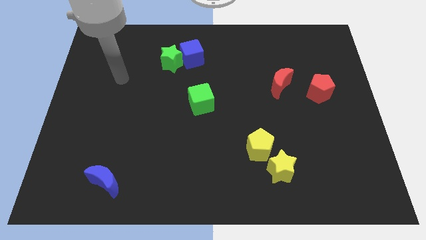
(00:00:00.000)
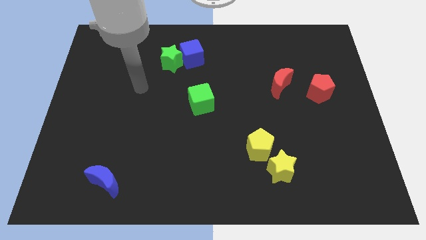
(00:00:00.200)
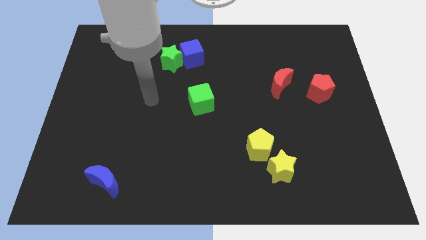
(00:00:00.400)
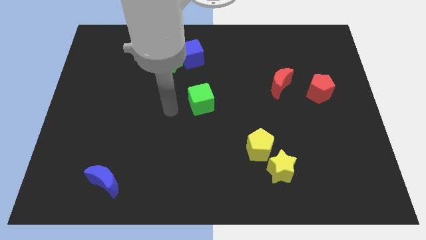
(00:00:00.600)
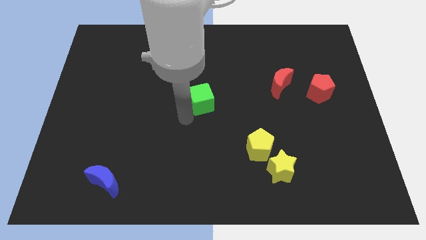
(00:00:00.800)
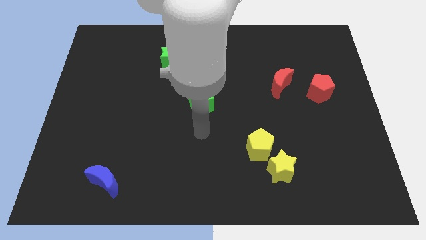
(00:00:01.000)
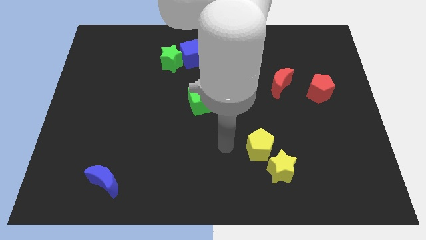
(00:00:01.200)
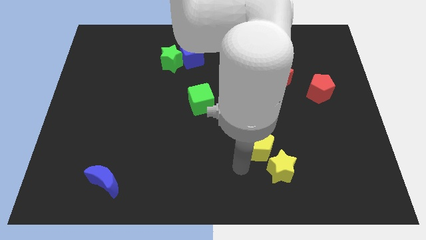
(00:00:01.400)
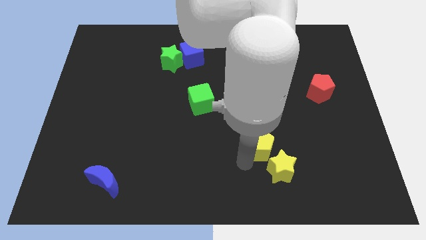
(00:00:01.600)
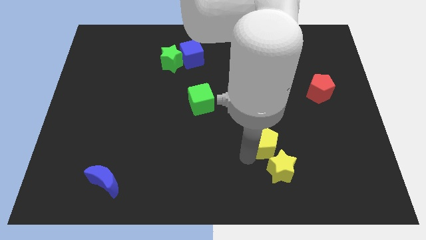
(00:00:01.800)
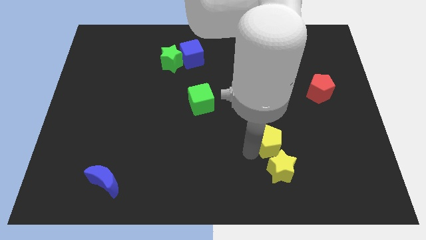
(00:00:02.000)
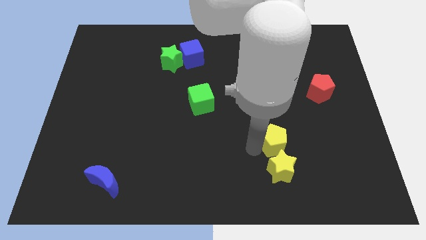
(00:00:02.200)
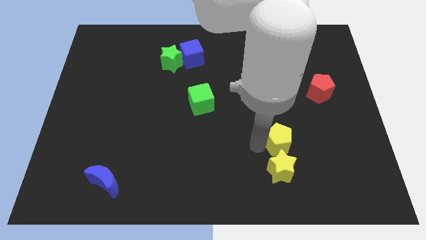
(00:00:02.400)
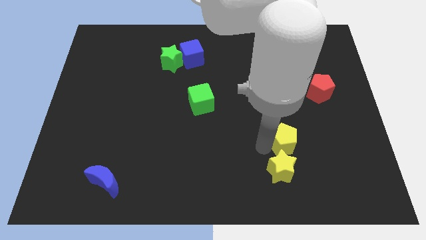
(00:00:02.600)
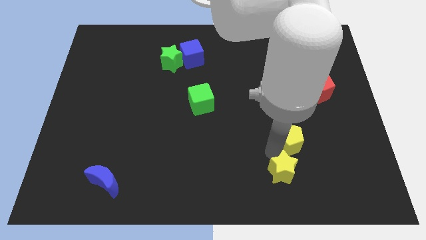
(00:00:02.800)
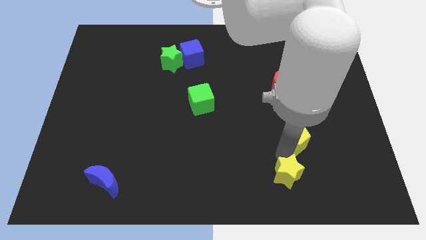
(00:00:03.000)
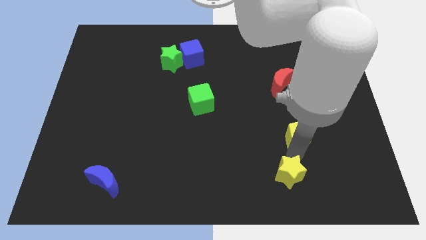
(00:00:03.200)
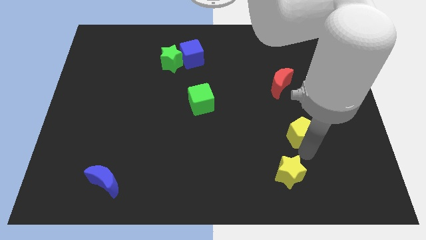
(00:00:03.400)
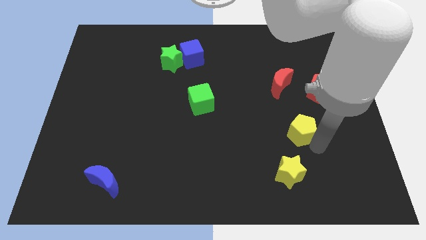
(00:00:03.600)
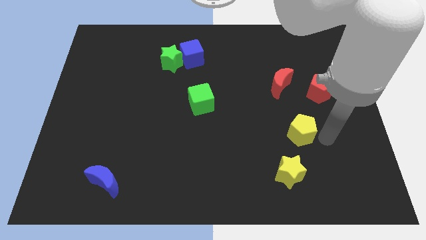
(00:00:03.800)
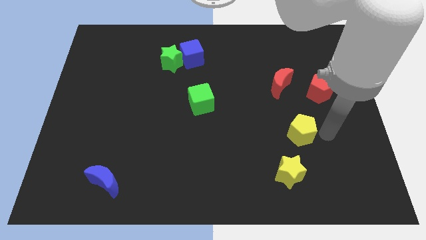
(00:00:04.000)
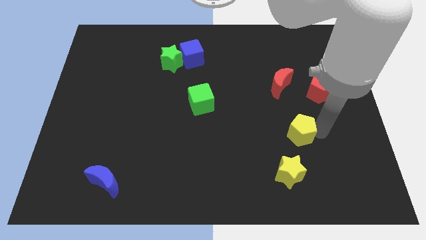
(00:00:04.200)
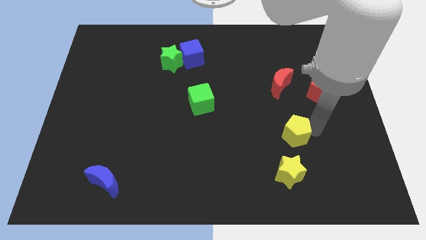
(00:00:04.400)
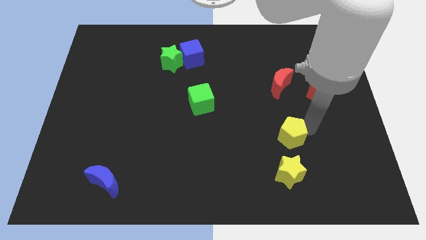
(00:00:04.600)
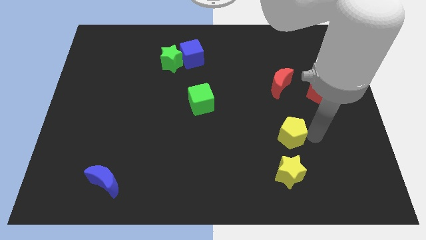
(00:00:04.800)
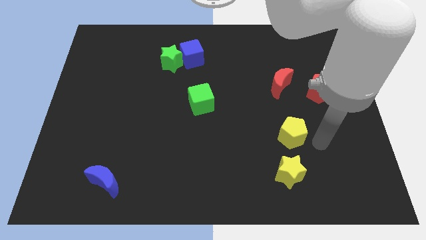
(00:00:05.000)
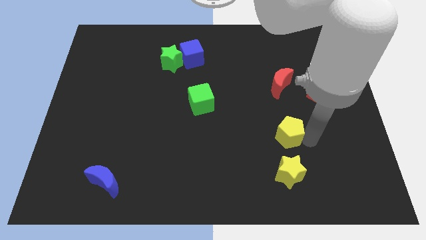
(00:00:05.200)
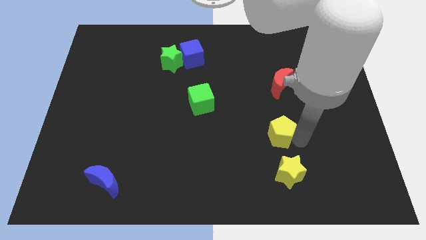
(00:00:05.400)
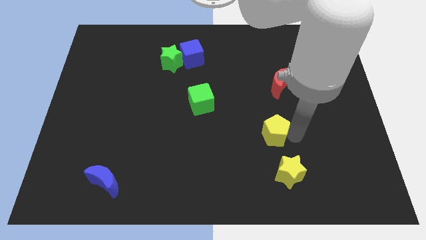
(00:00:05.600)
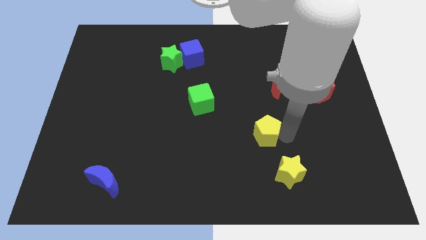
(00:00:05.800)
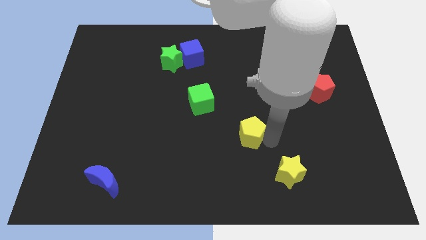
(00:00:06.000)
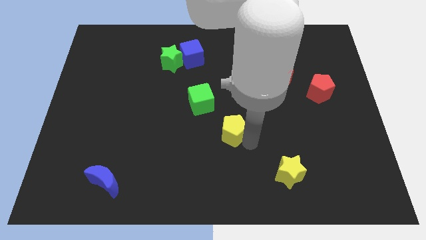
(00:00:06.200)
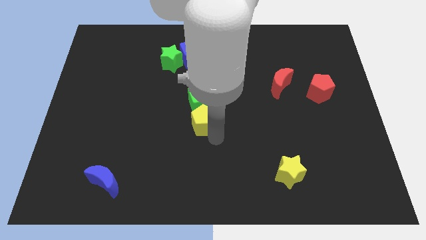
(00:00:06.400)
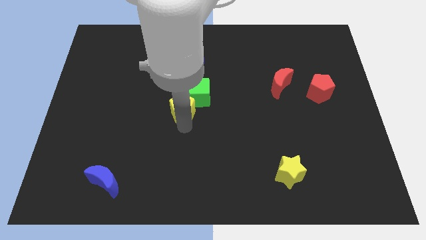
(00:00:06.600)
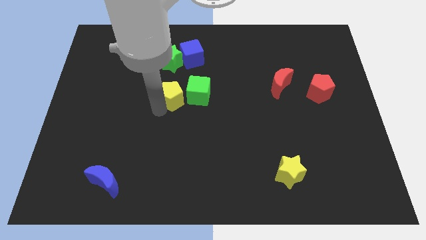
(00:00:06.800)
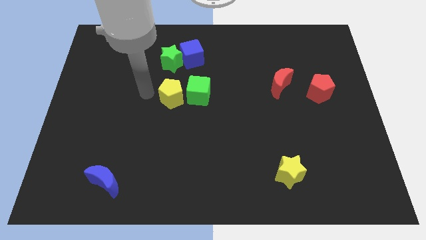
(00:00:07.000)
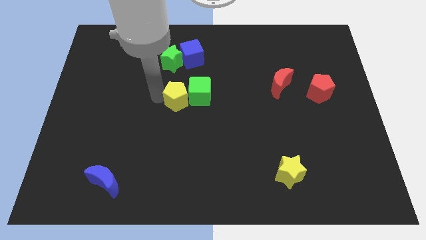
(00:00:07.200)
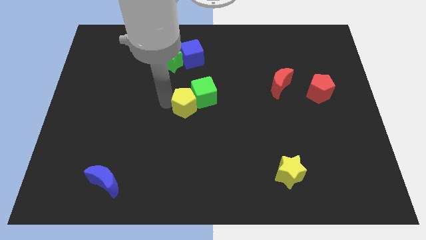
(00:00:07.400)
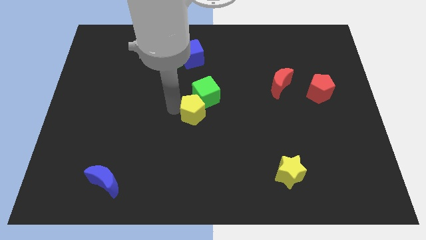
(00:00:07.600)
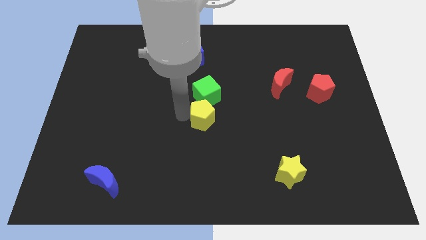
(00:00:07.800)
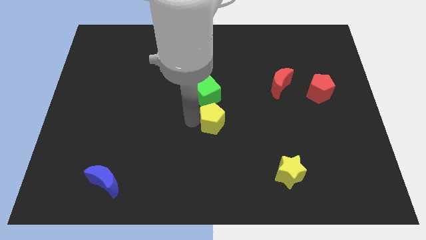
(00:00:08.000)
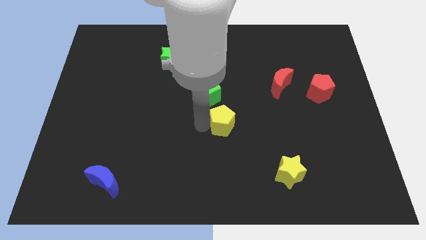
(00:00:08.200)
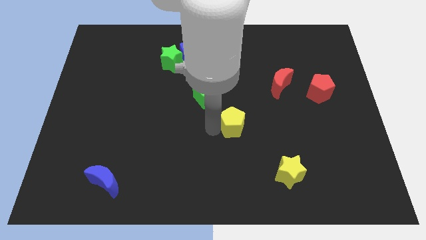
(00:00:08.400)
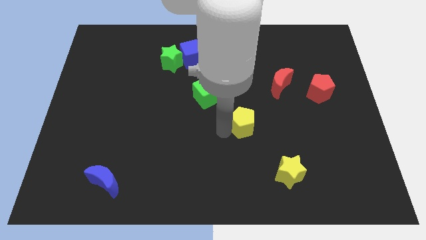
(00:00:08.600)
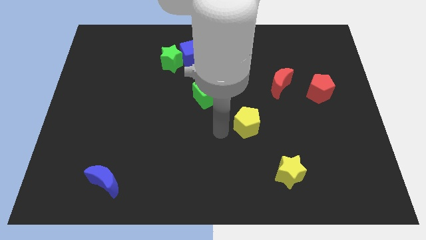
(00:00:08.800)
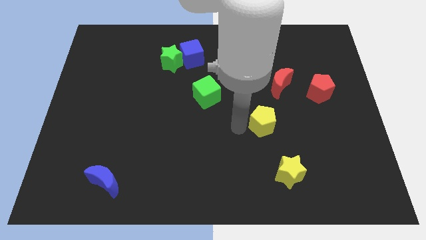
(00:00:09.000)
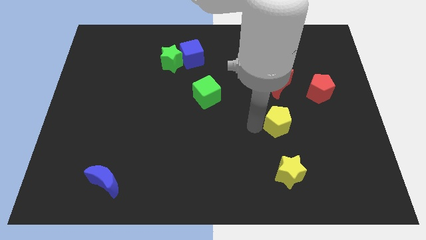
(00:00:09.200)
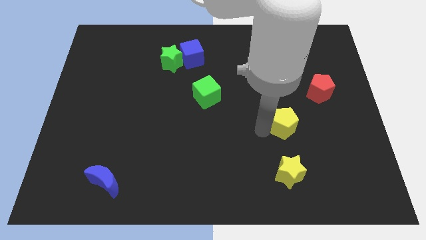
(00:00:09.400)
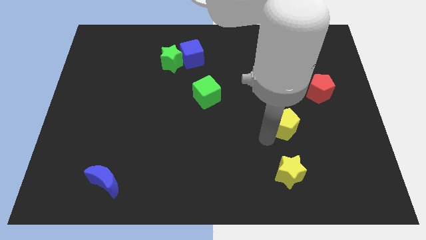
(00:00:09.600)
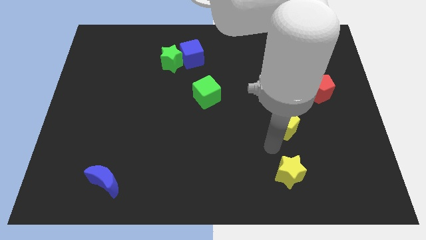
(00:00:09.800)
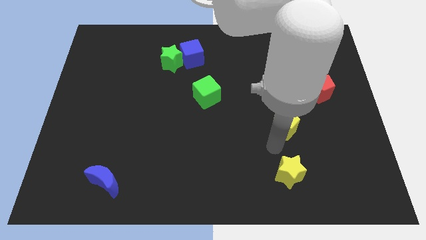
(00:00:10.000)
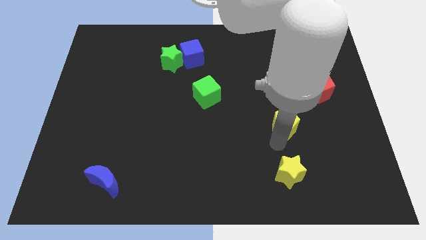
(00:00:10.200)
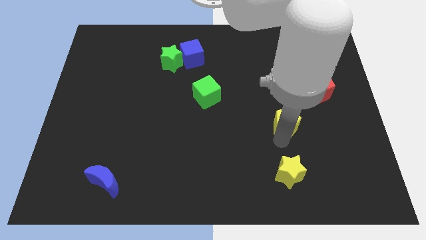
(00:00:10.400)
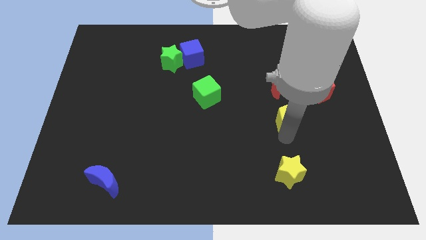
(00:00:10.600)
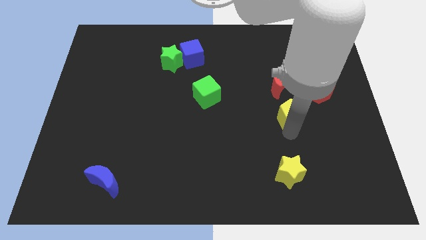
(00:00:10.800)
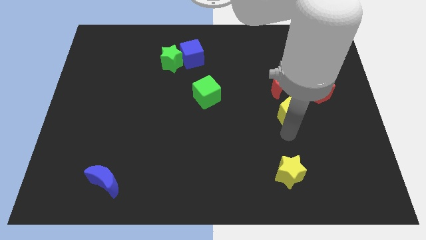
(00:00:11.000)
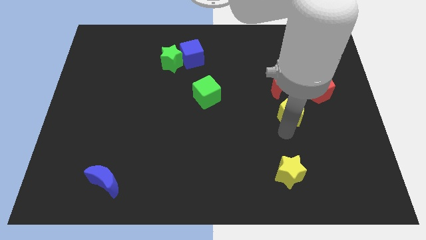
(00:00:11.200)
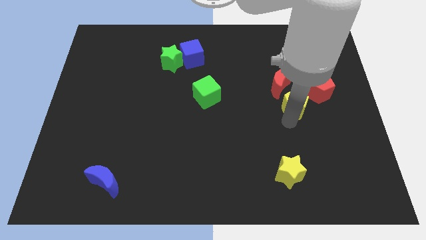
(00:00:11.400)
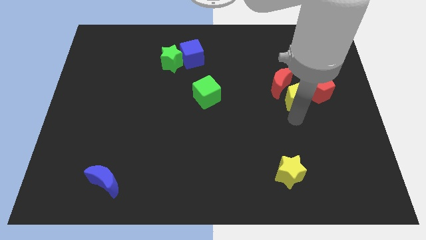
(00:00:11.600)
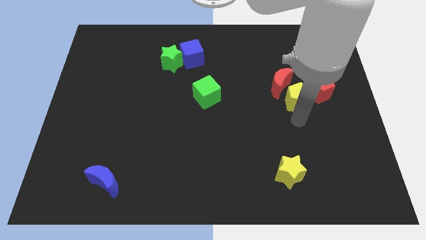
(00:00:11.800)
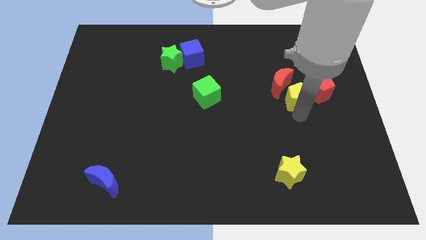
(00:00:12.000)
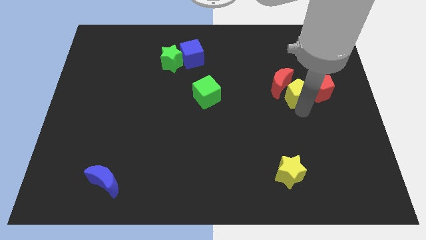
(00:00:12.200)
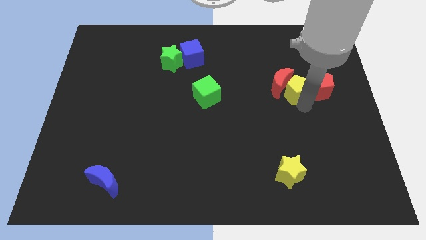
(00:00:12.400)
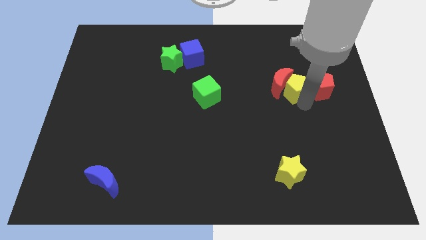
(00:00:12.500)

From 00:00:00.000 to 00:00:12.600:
push the yellow pentagon to the top right side of the red moon

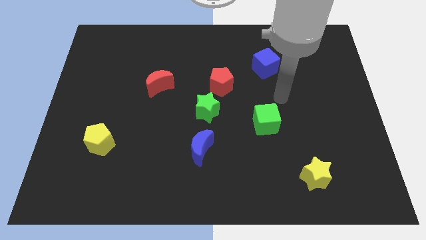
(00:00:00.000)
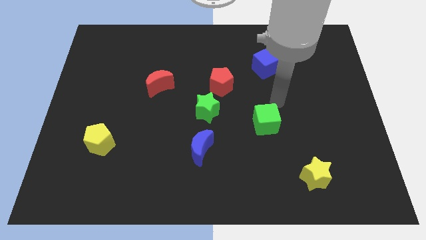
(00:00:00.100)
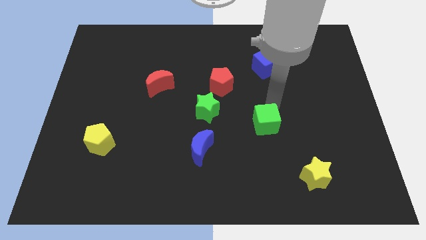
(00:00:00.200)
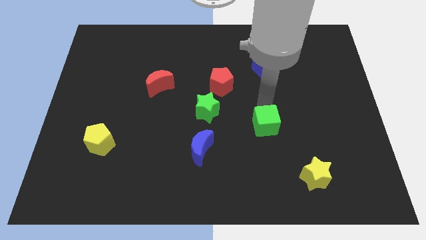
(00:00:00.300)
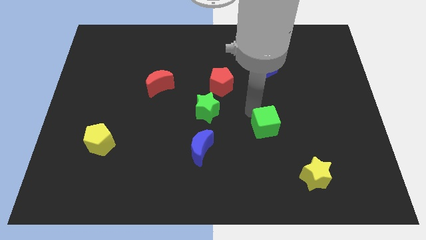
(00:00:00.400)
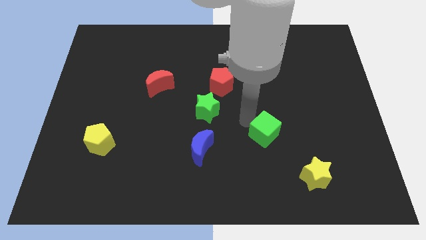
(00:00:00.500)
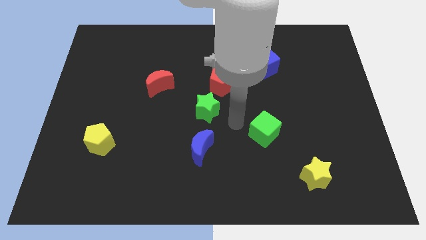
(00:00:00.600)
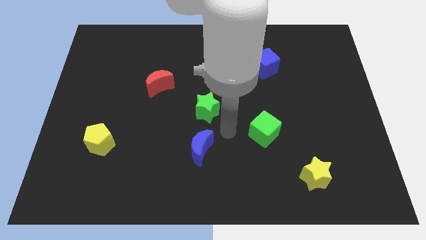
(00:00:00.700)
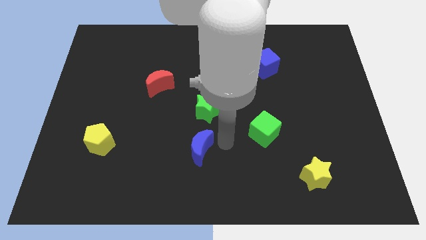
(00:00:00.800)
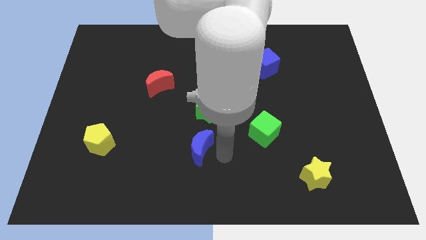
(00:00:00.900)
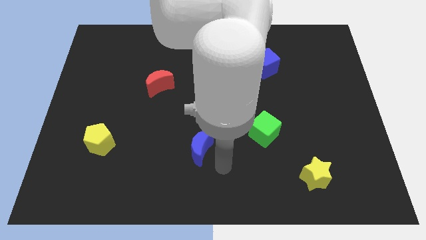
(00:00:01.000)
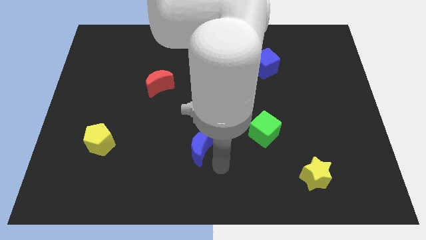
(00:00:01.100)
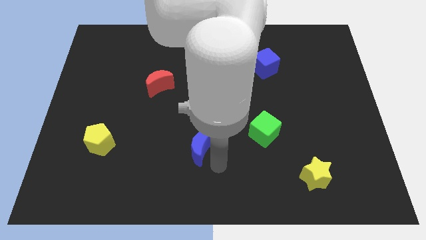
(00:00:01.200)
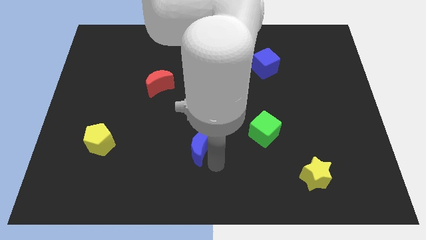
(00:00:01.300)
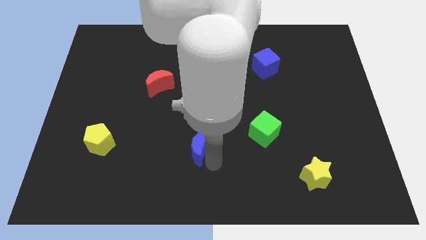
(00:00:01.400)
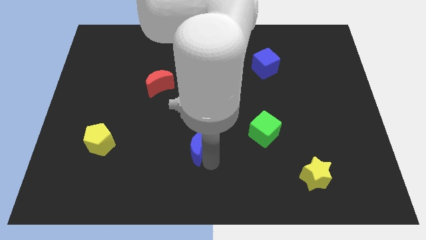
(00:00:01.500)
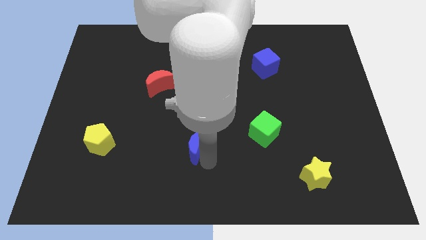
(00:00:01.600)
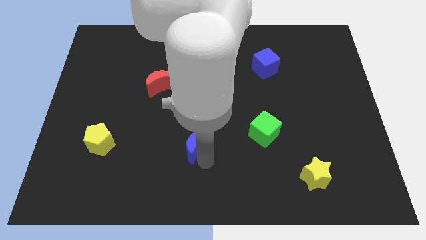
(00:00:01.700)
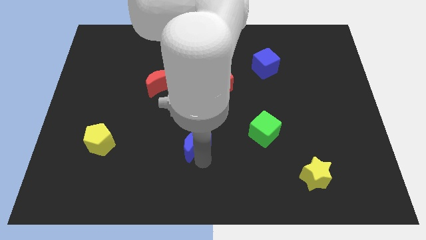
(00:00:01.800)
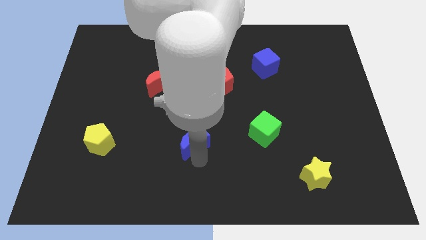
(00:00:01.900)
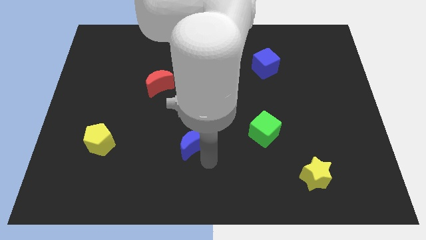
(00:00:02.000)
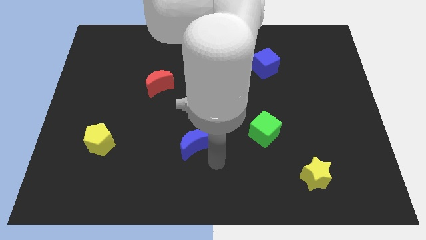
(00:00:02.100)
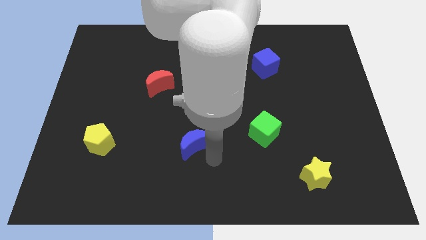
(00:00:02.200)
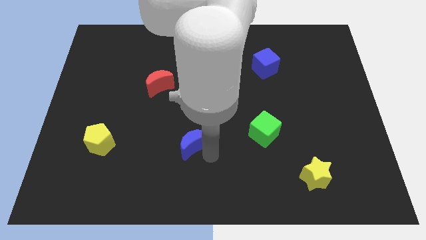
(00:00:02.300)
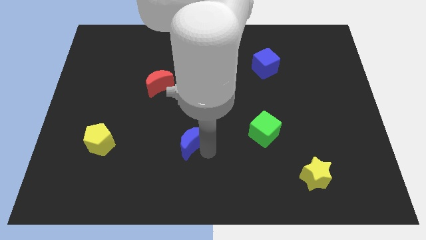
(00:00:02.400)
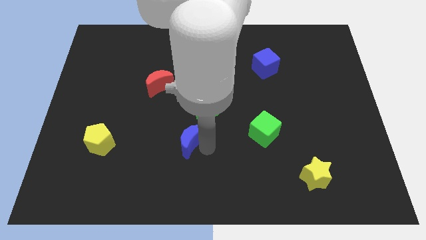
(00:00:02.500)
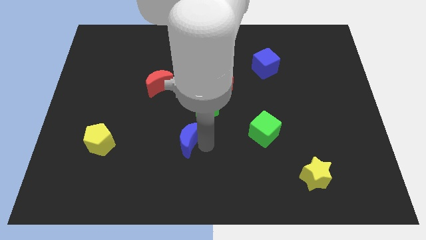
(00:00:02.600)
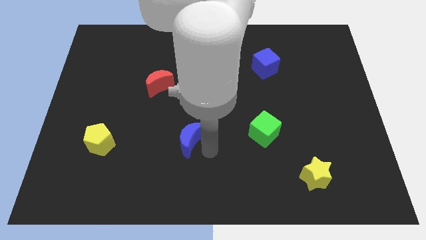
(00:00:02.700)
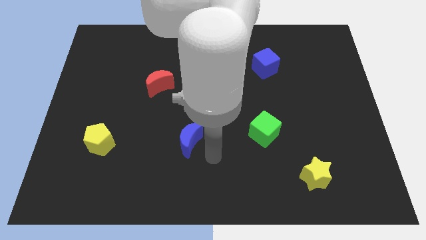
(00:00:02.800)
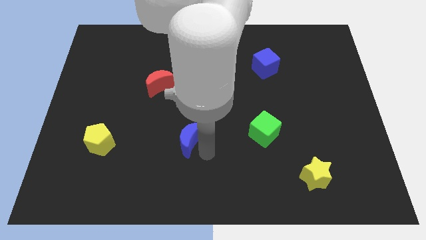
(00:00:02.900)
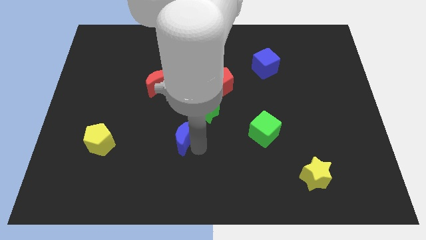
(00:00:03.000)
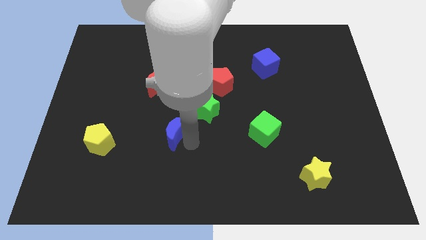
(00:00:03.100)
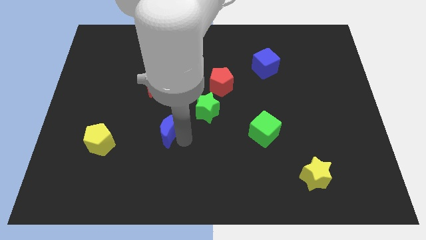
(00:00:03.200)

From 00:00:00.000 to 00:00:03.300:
put the blue moon to the bottom side of the red moon
